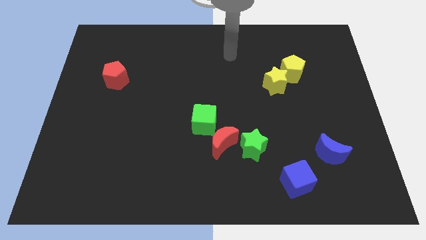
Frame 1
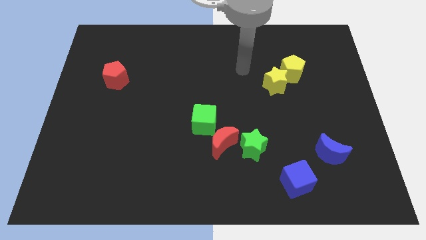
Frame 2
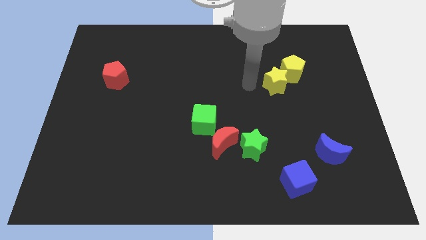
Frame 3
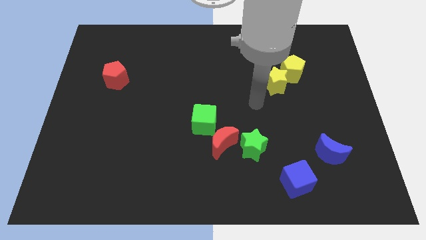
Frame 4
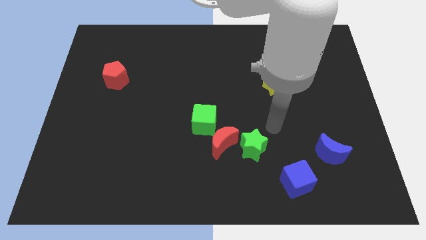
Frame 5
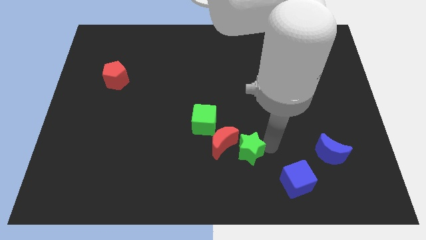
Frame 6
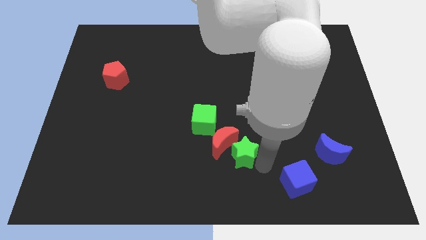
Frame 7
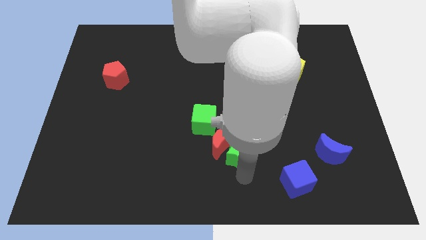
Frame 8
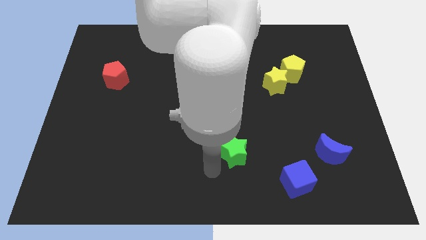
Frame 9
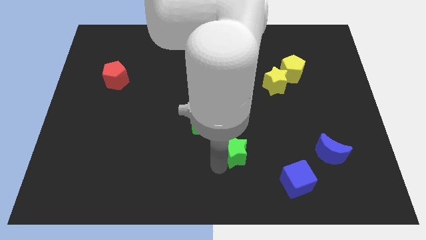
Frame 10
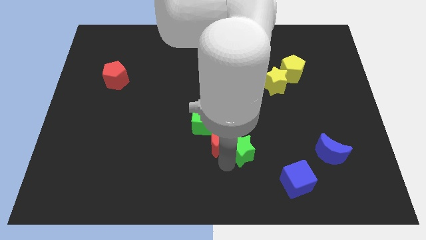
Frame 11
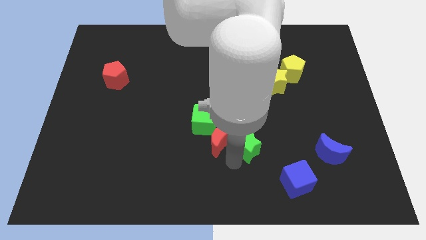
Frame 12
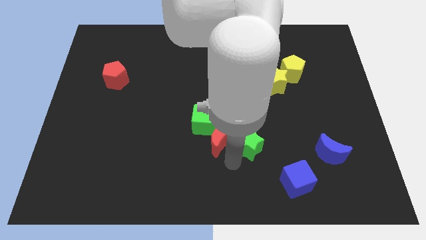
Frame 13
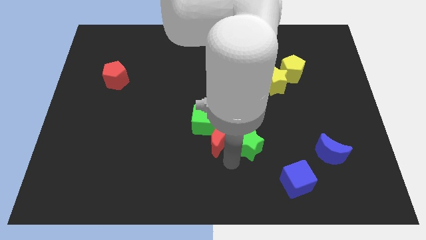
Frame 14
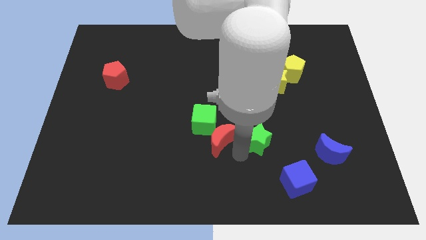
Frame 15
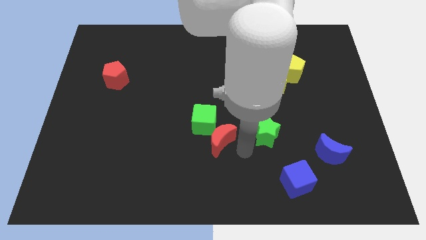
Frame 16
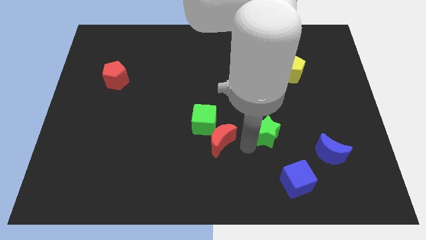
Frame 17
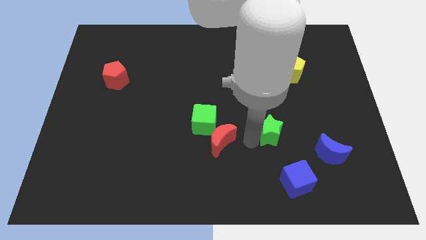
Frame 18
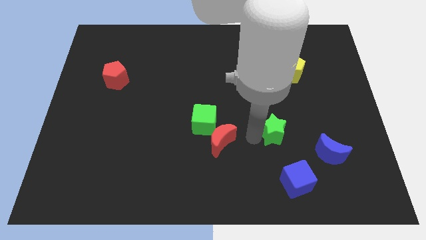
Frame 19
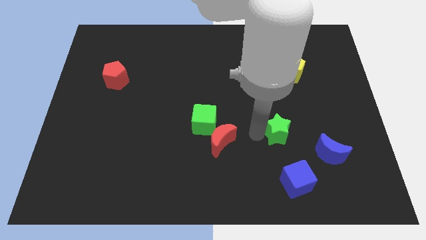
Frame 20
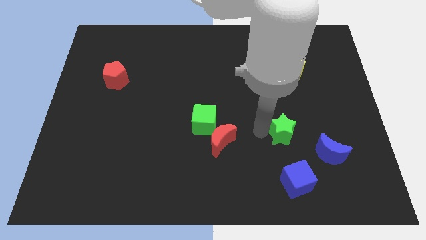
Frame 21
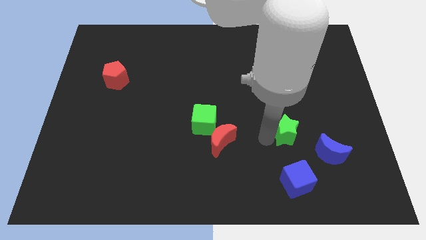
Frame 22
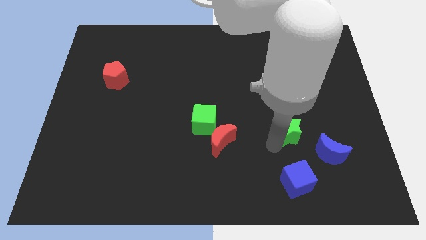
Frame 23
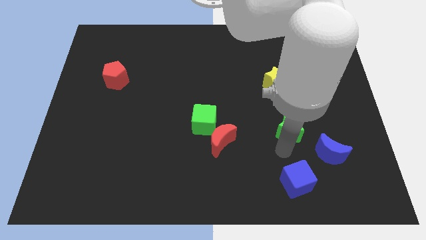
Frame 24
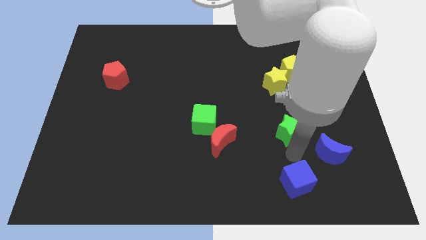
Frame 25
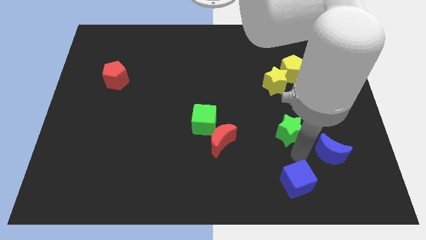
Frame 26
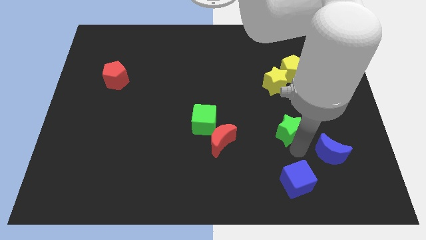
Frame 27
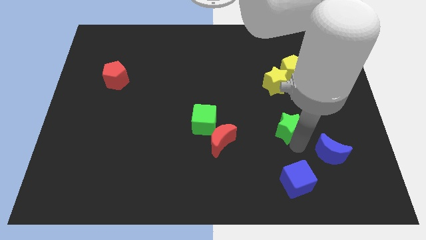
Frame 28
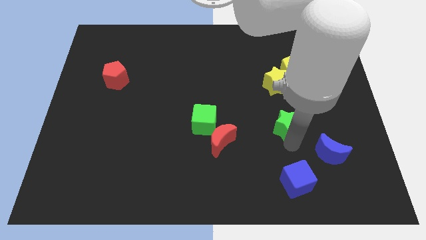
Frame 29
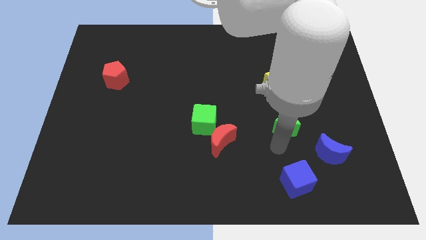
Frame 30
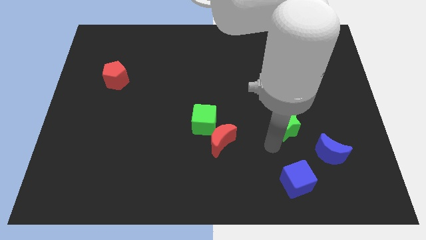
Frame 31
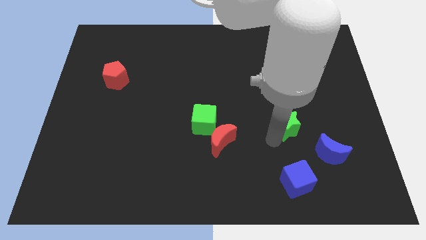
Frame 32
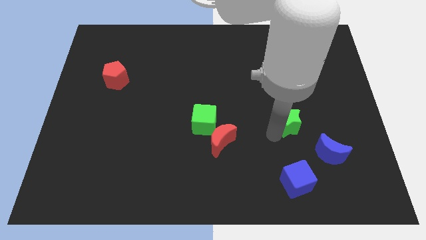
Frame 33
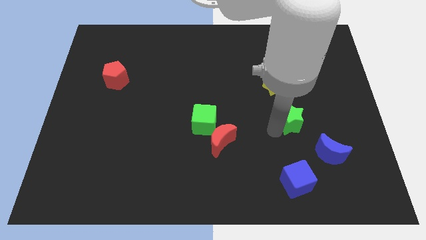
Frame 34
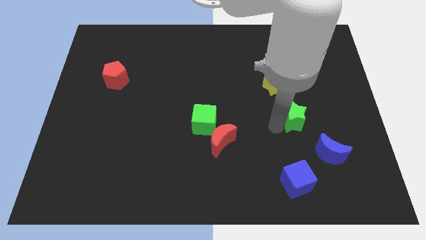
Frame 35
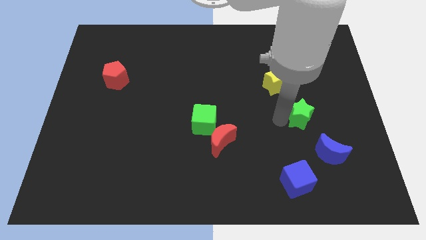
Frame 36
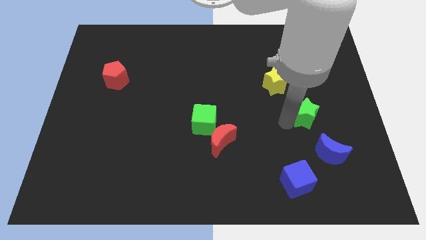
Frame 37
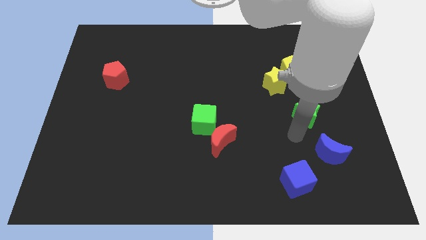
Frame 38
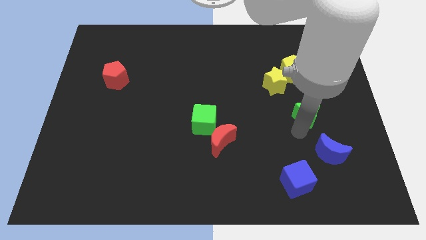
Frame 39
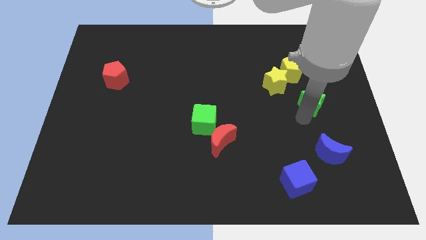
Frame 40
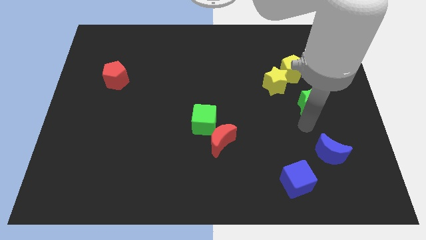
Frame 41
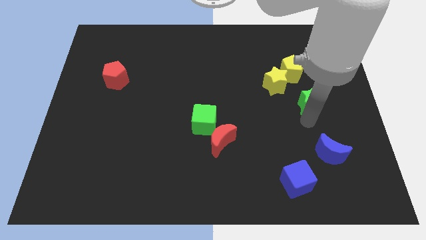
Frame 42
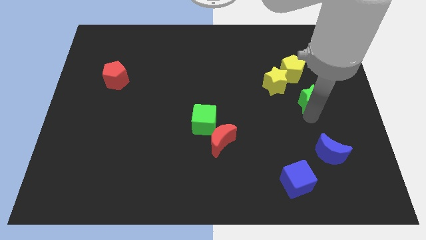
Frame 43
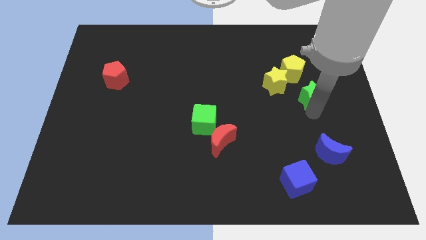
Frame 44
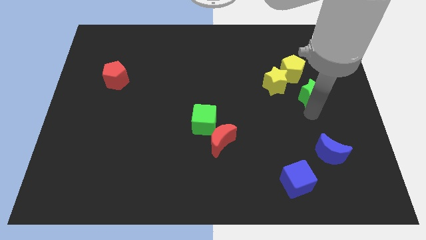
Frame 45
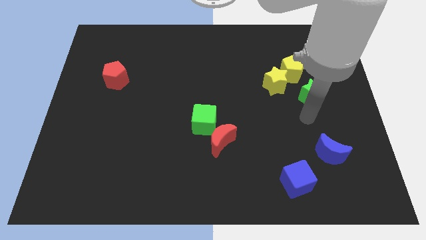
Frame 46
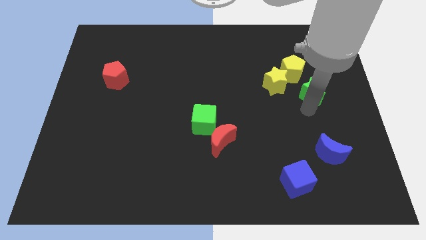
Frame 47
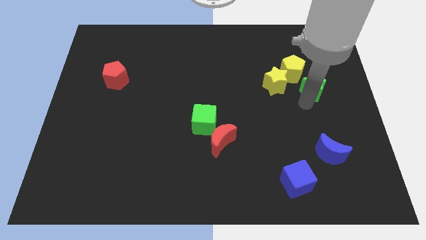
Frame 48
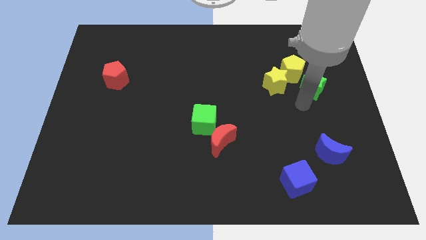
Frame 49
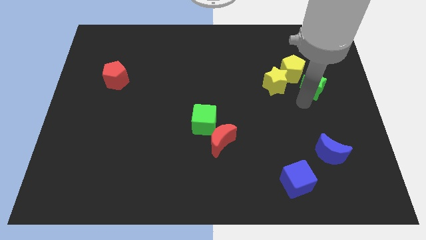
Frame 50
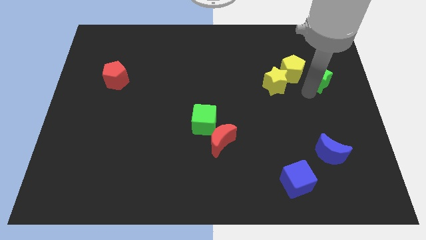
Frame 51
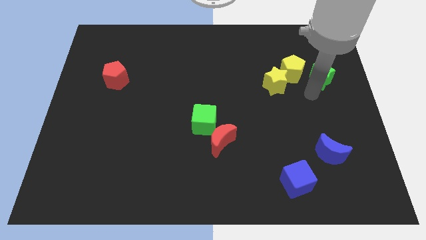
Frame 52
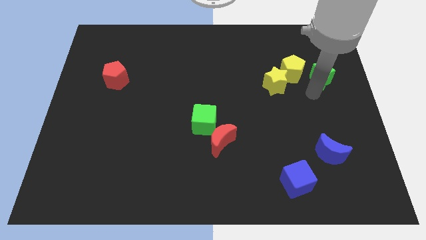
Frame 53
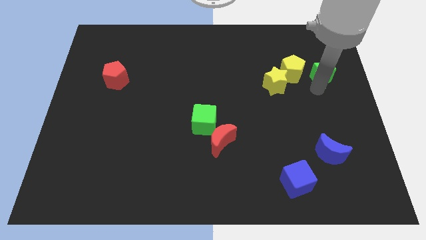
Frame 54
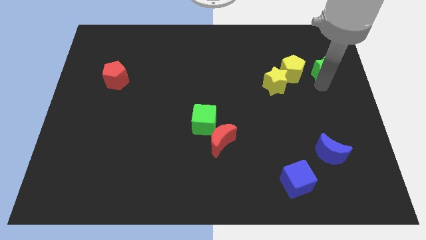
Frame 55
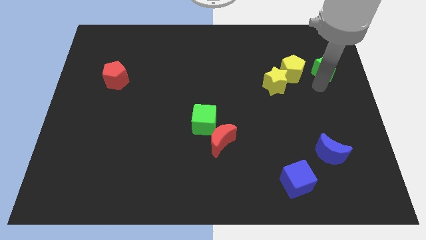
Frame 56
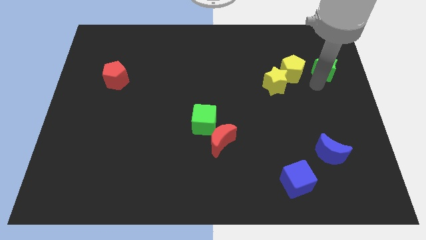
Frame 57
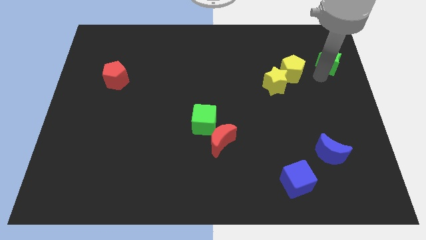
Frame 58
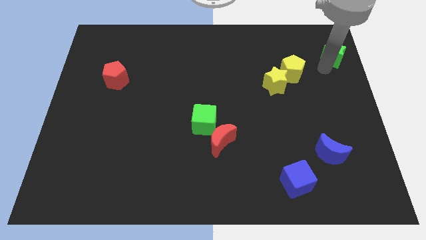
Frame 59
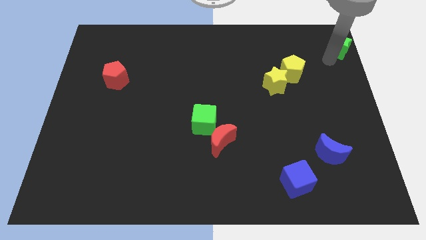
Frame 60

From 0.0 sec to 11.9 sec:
slide the green star to the top right corner

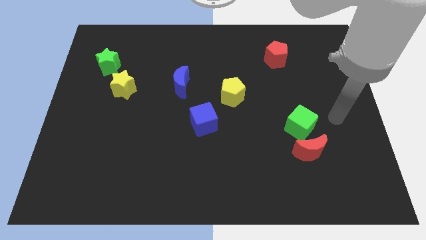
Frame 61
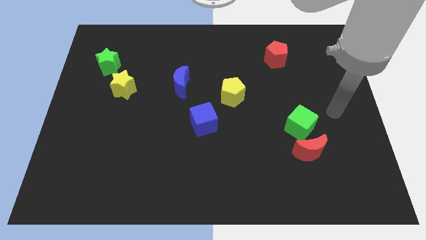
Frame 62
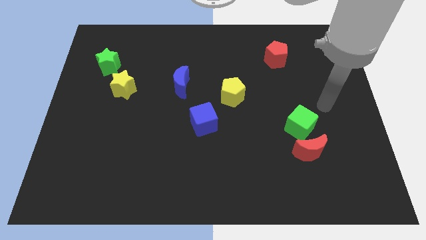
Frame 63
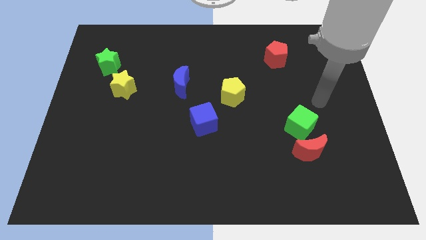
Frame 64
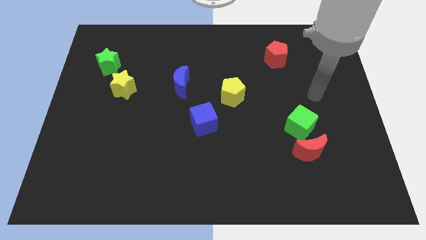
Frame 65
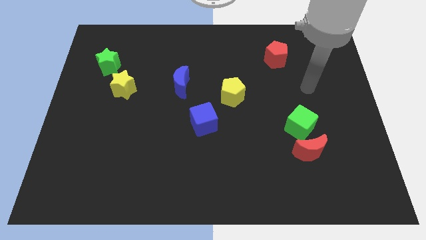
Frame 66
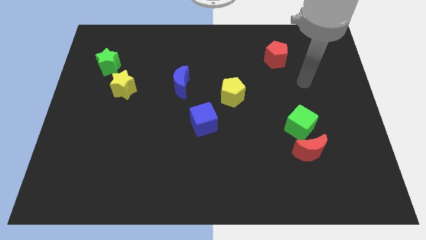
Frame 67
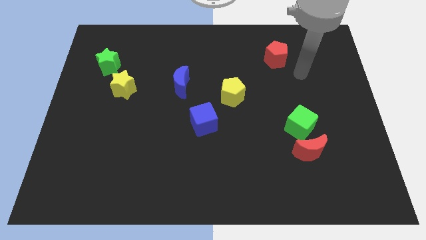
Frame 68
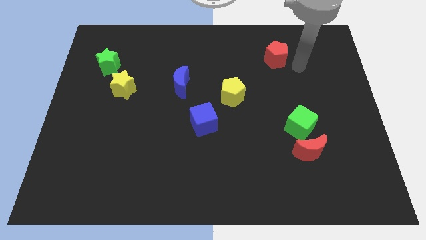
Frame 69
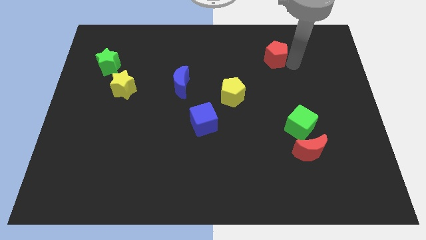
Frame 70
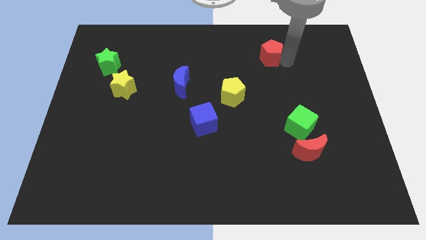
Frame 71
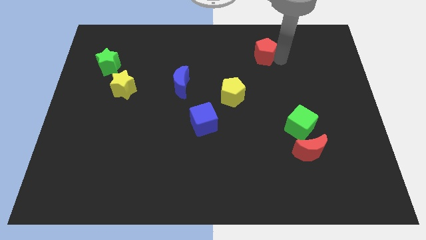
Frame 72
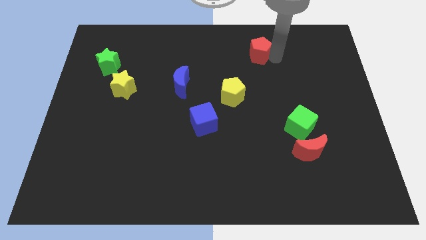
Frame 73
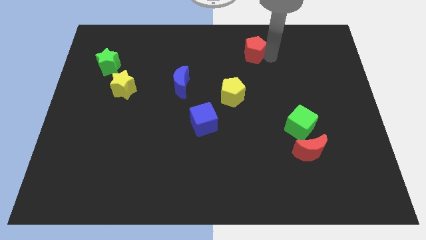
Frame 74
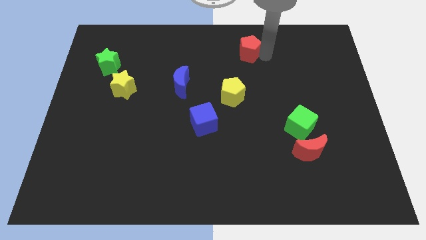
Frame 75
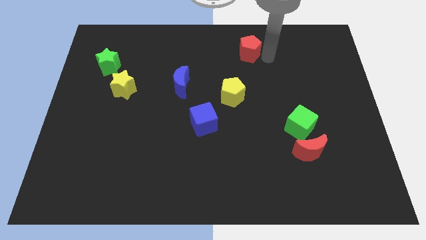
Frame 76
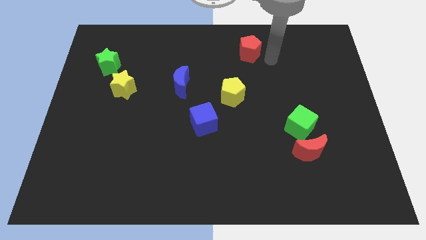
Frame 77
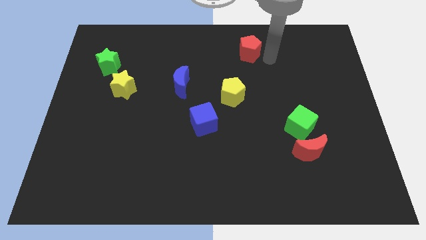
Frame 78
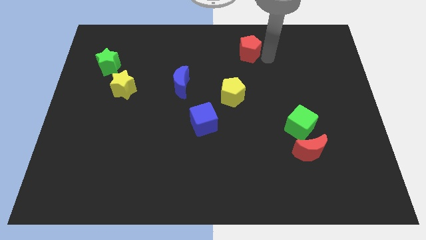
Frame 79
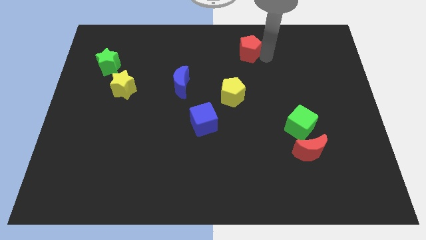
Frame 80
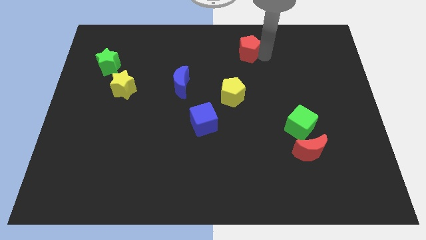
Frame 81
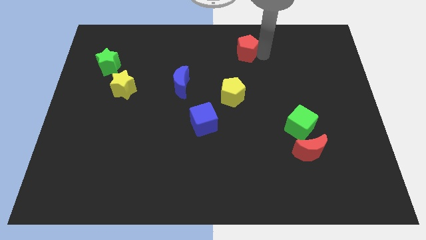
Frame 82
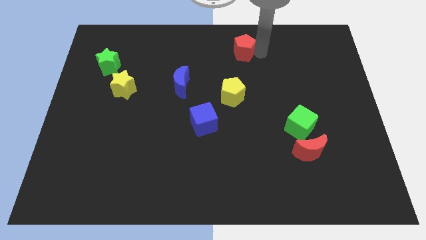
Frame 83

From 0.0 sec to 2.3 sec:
put the red pentagon to the top side
